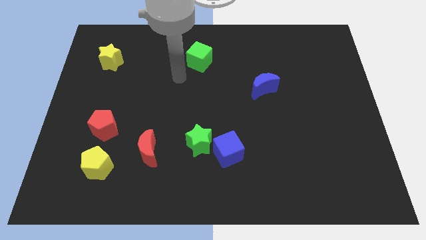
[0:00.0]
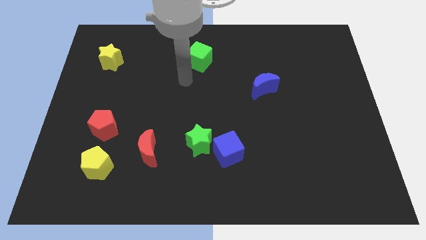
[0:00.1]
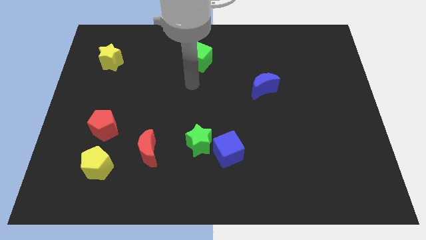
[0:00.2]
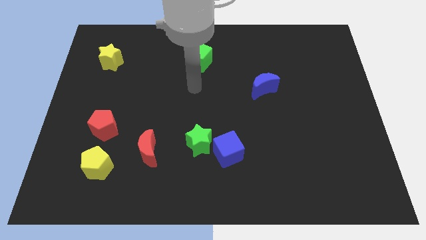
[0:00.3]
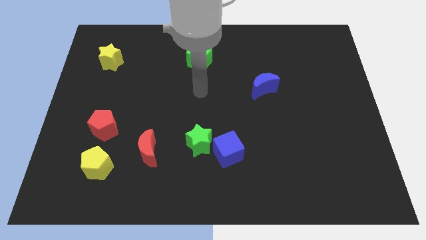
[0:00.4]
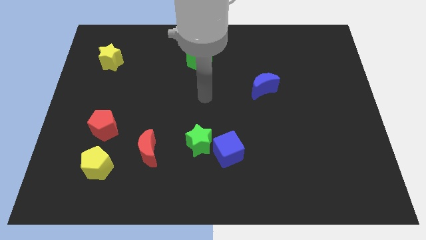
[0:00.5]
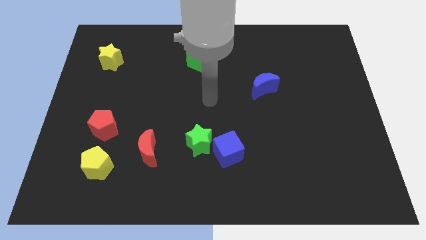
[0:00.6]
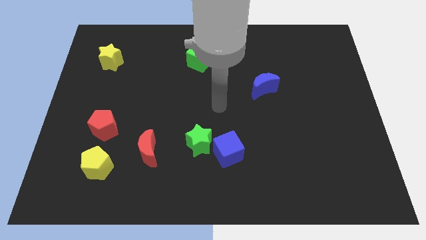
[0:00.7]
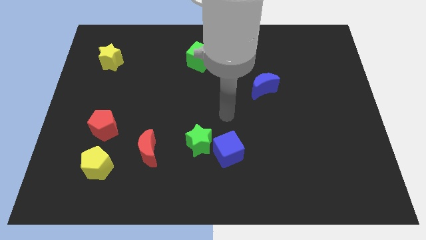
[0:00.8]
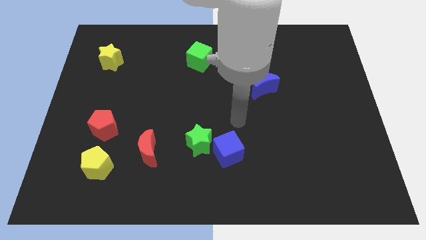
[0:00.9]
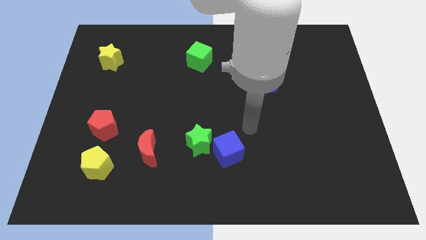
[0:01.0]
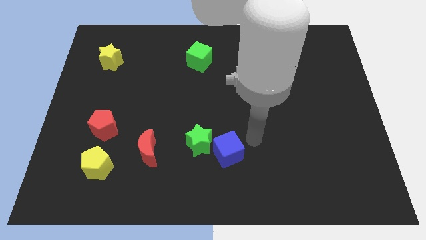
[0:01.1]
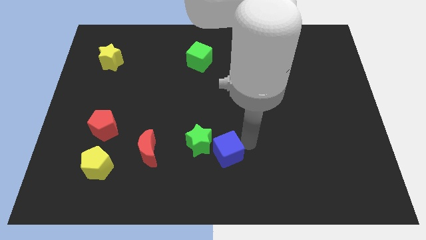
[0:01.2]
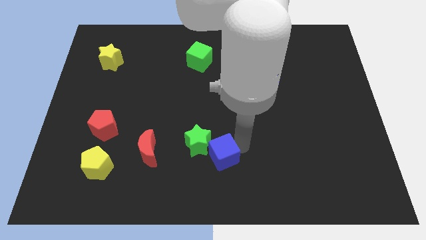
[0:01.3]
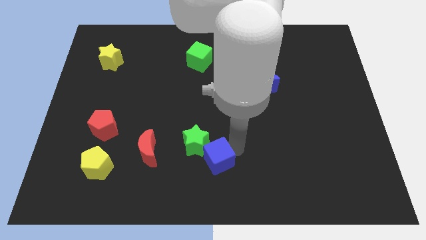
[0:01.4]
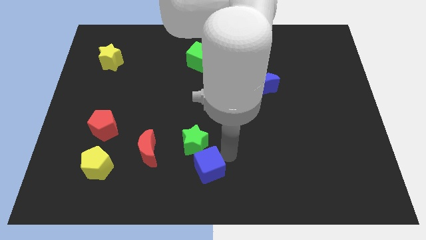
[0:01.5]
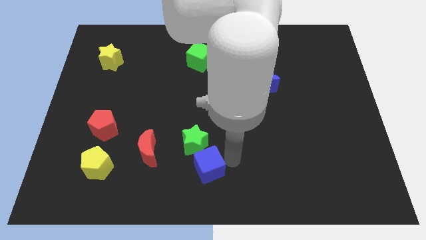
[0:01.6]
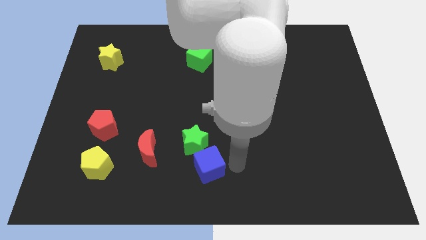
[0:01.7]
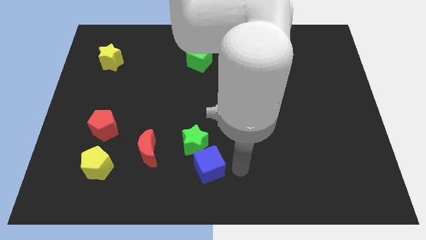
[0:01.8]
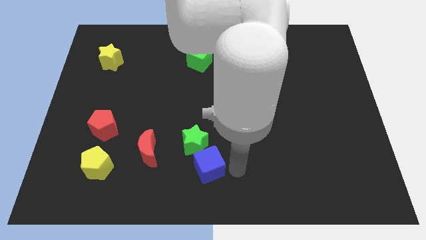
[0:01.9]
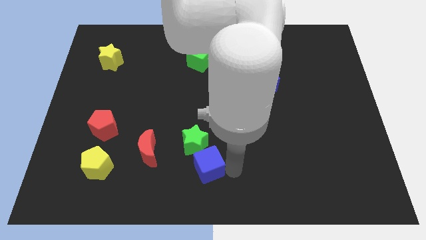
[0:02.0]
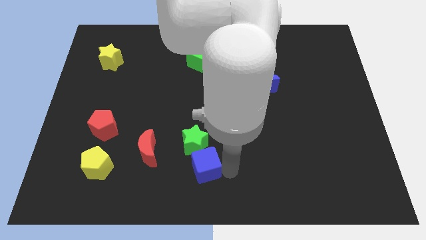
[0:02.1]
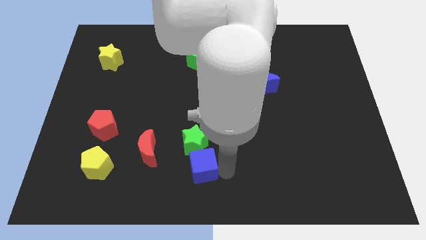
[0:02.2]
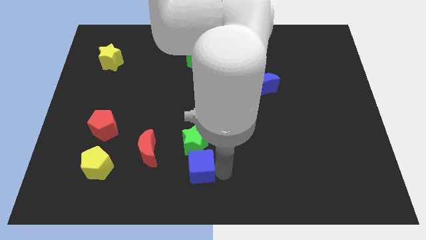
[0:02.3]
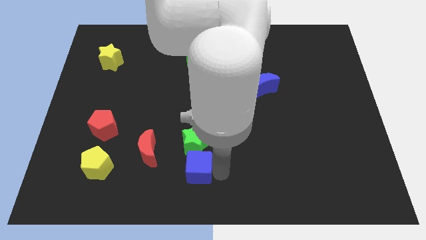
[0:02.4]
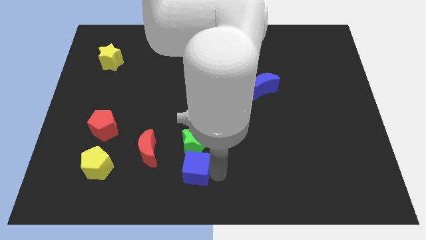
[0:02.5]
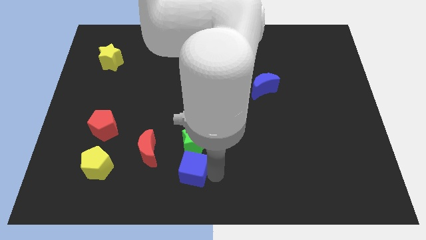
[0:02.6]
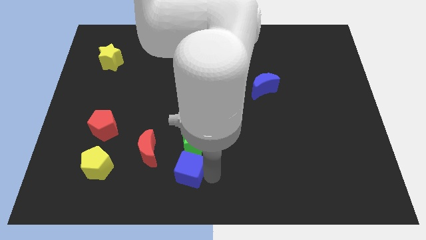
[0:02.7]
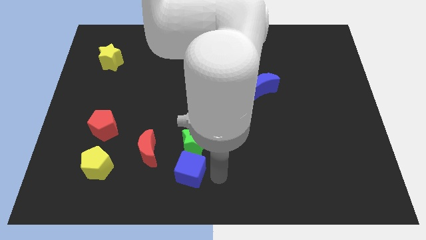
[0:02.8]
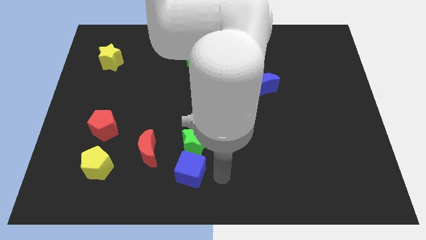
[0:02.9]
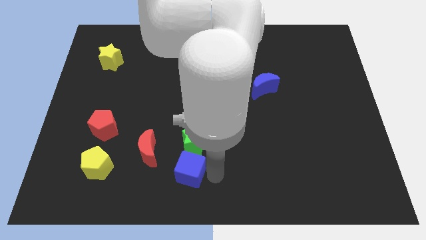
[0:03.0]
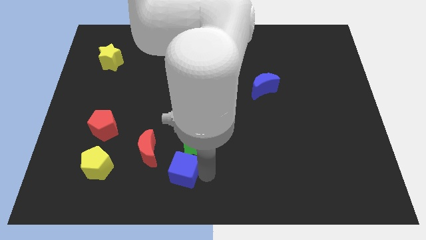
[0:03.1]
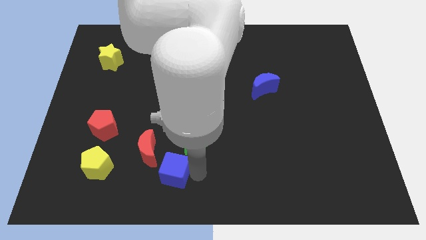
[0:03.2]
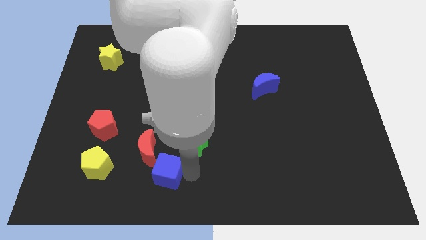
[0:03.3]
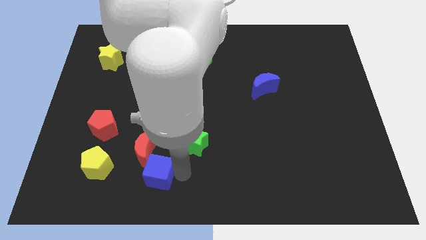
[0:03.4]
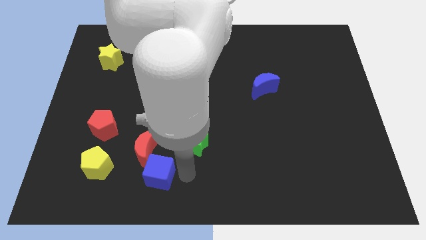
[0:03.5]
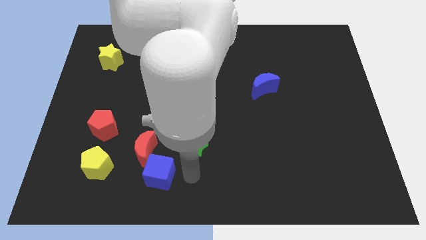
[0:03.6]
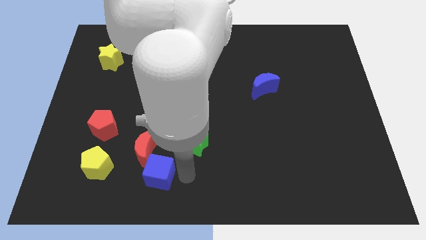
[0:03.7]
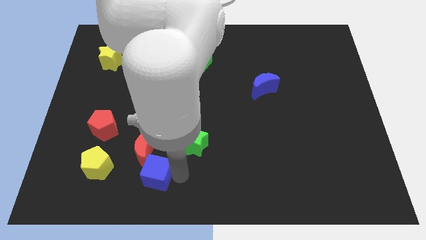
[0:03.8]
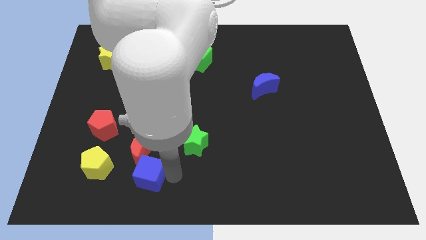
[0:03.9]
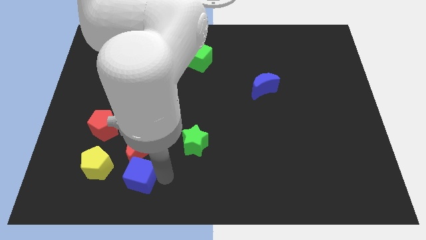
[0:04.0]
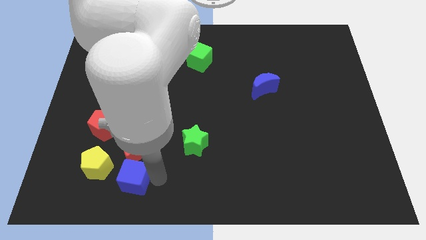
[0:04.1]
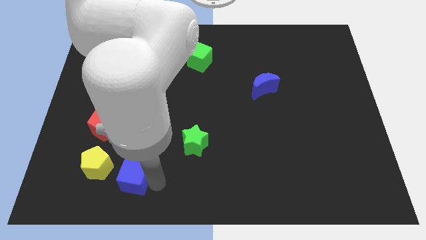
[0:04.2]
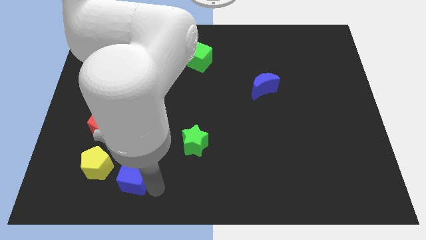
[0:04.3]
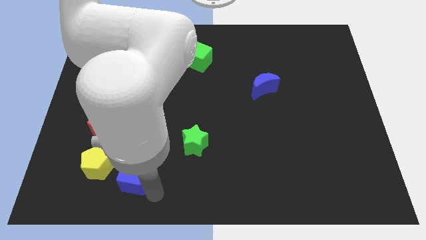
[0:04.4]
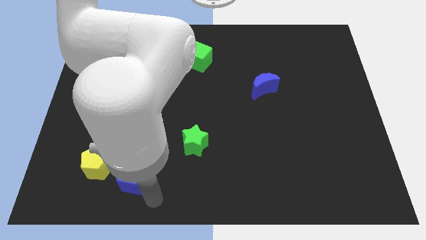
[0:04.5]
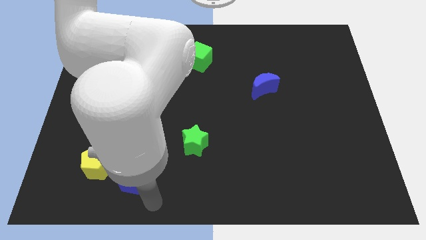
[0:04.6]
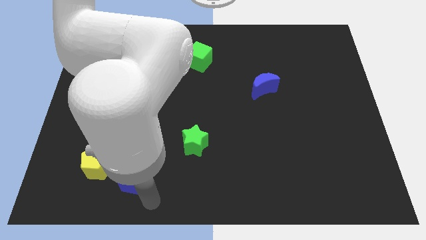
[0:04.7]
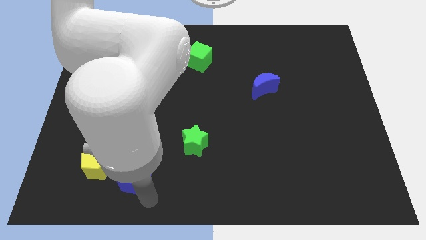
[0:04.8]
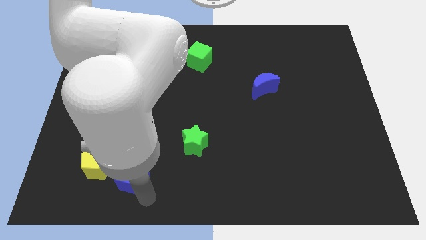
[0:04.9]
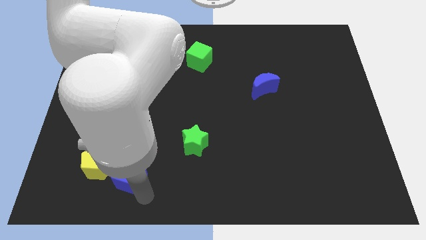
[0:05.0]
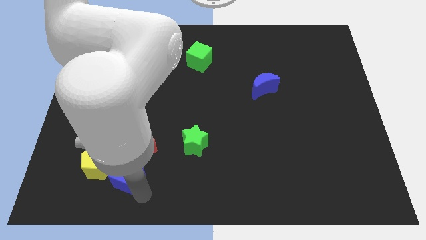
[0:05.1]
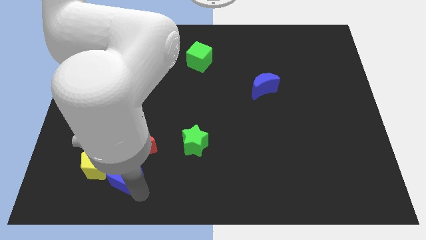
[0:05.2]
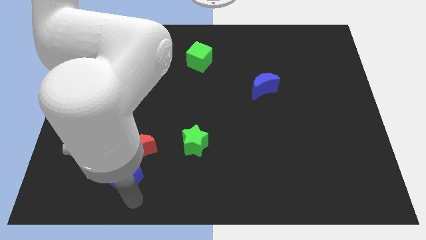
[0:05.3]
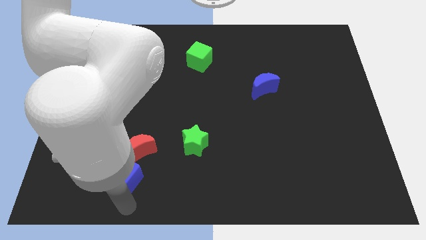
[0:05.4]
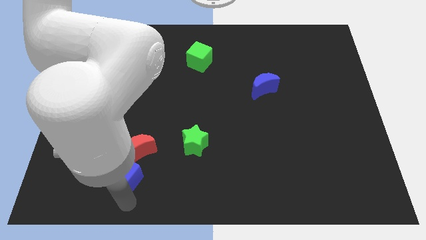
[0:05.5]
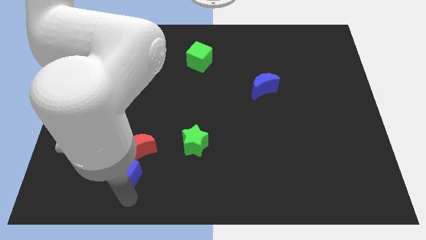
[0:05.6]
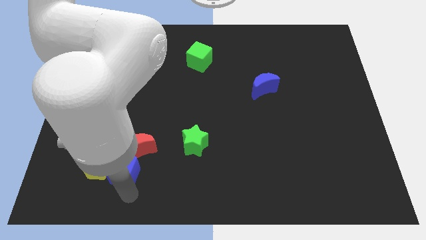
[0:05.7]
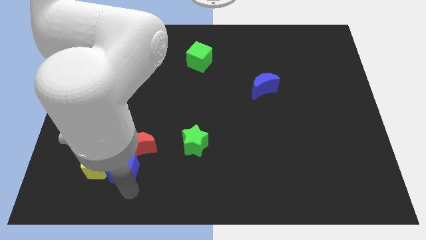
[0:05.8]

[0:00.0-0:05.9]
move the blue cube to the top right of the yellow pentagon

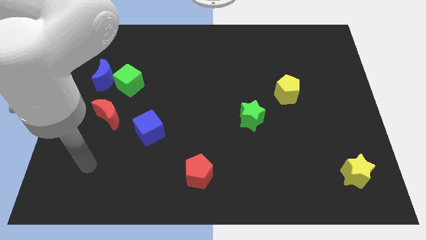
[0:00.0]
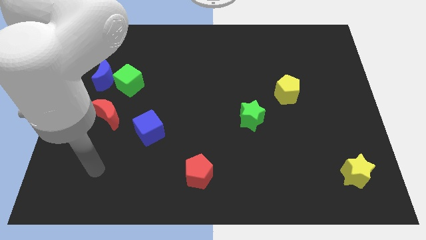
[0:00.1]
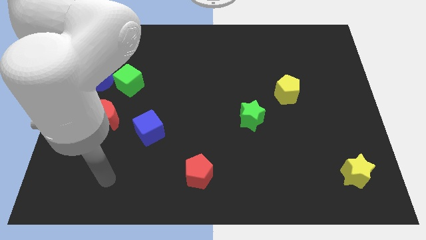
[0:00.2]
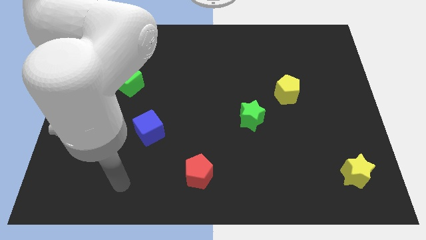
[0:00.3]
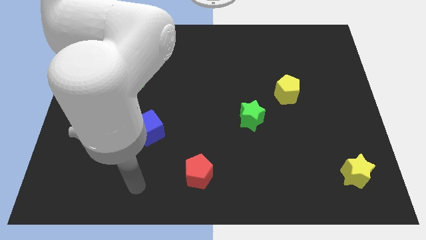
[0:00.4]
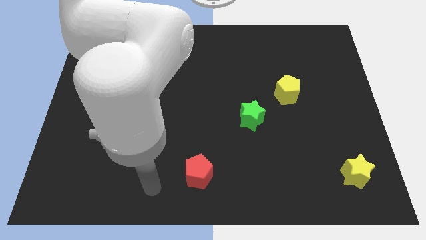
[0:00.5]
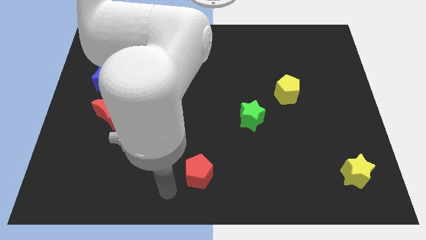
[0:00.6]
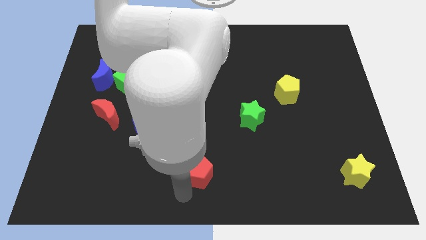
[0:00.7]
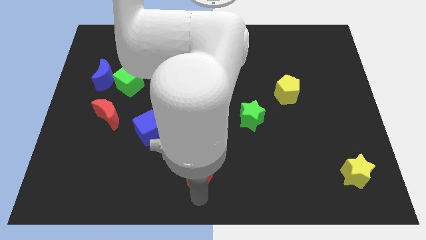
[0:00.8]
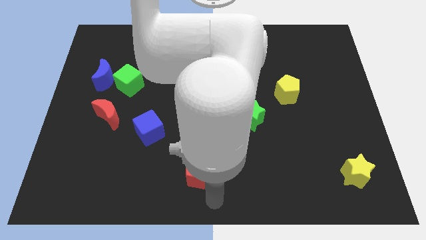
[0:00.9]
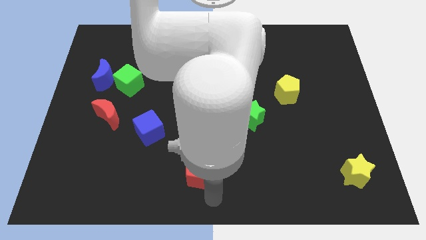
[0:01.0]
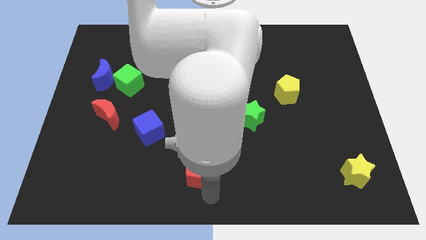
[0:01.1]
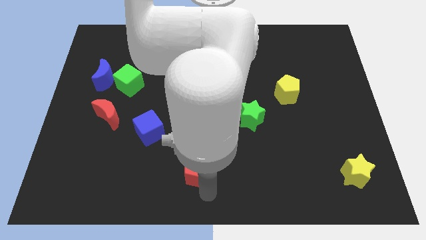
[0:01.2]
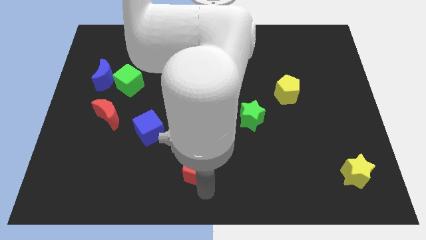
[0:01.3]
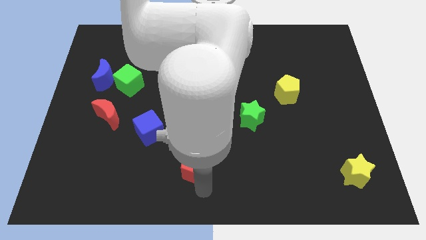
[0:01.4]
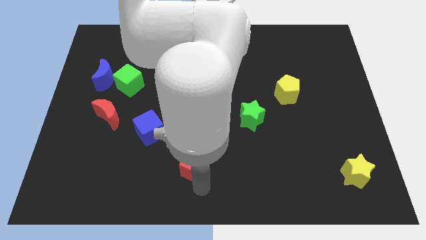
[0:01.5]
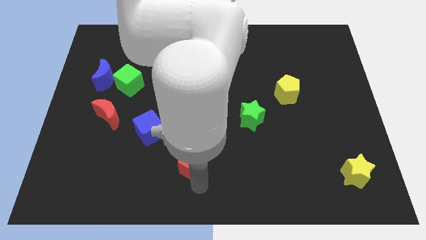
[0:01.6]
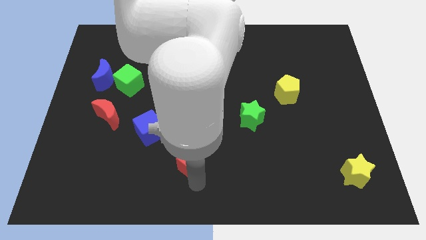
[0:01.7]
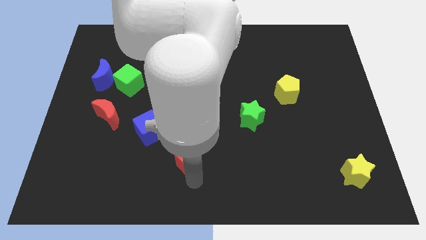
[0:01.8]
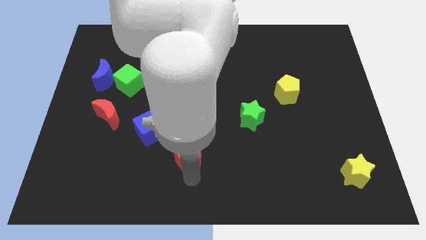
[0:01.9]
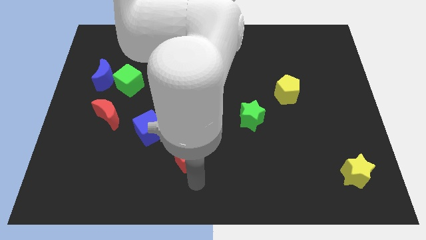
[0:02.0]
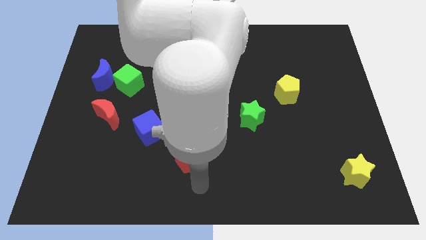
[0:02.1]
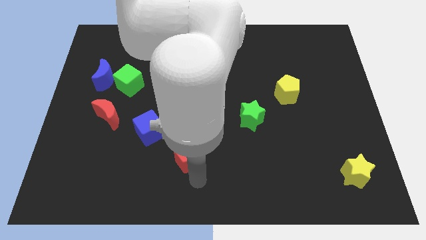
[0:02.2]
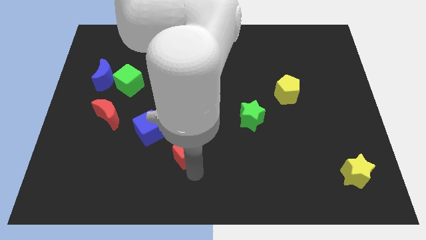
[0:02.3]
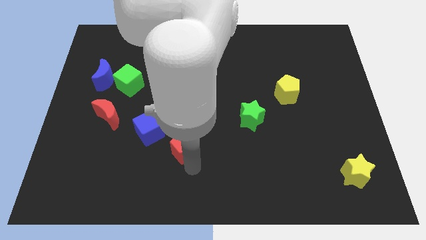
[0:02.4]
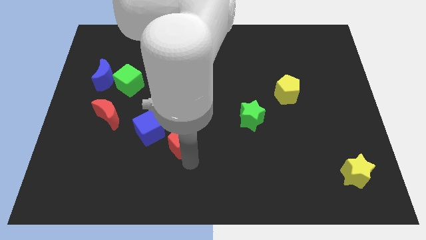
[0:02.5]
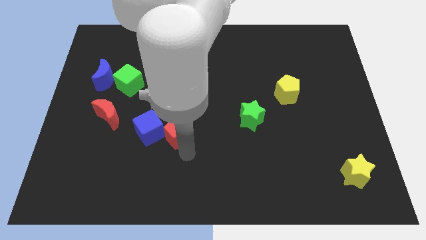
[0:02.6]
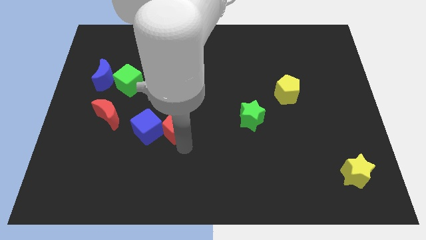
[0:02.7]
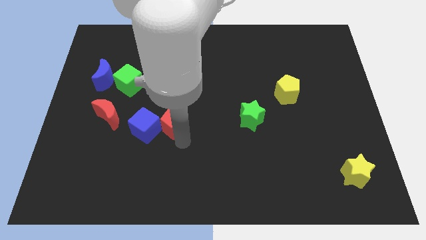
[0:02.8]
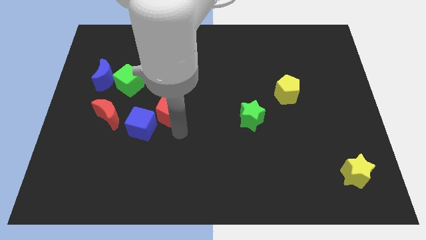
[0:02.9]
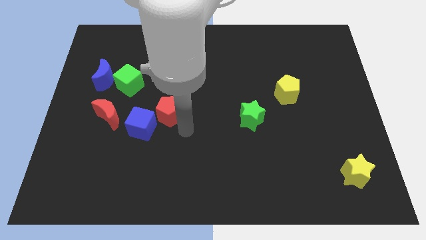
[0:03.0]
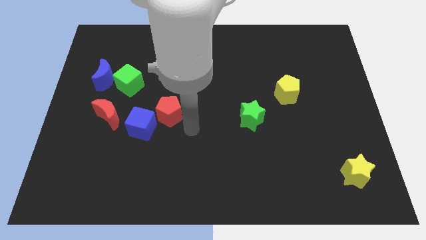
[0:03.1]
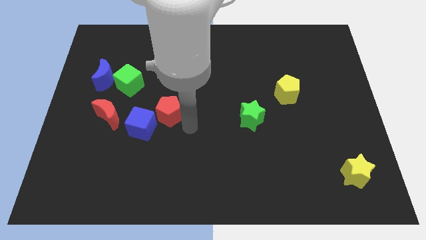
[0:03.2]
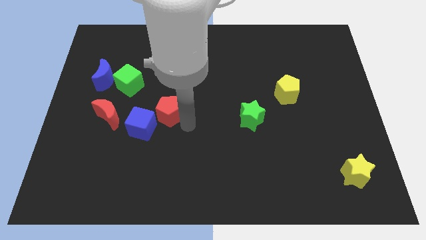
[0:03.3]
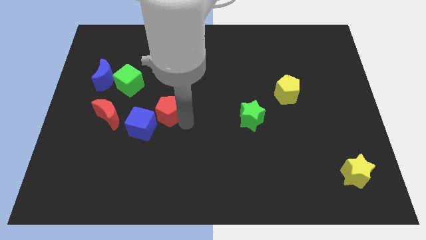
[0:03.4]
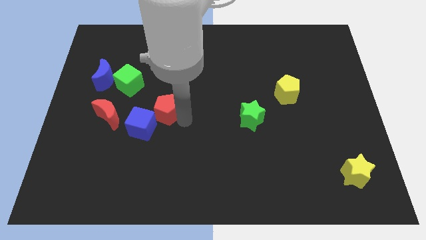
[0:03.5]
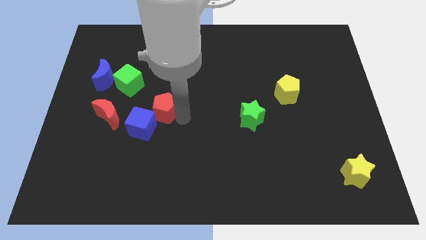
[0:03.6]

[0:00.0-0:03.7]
move the red pentagon diagonally down and to the right of the green cube
